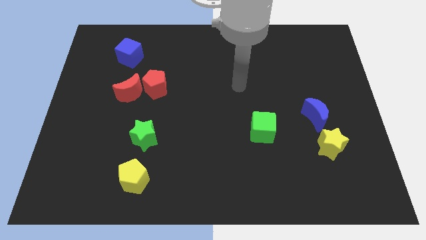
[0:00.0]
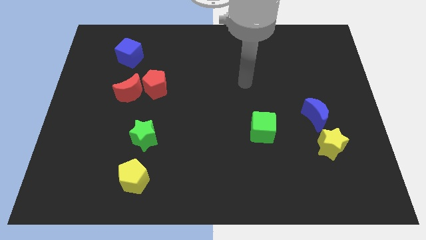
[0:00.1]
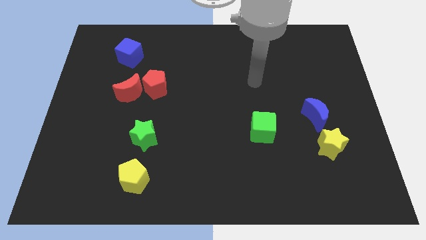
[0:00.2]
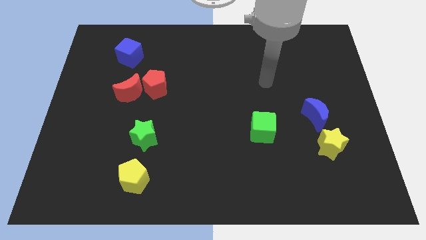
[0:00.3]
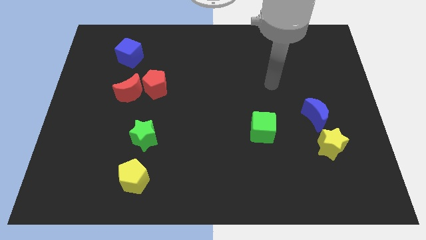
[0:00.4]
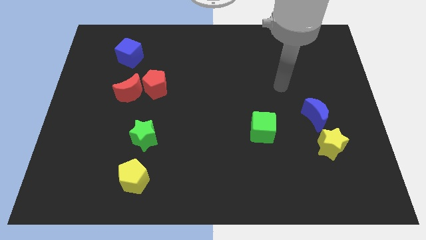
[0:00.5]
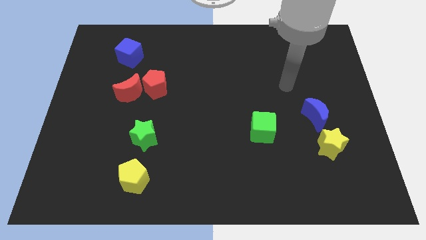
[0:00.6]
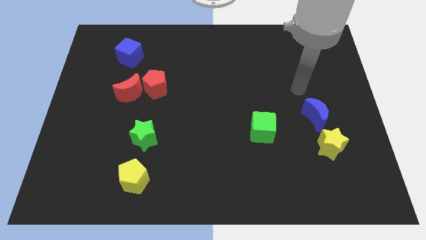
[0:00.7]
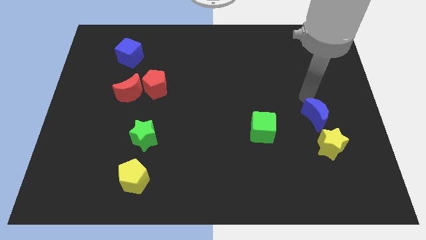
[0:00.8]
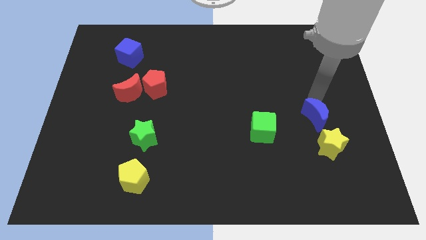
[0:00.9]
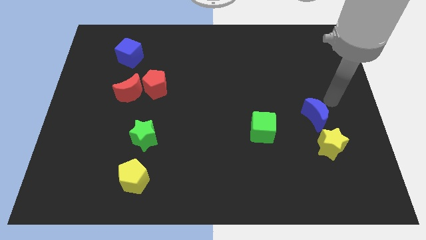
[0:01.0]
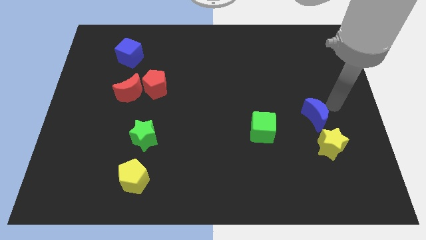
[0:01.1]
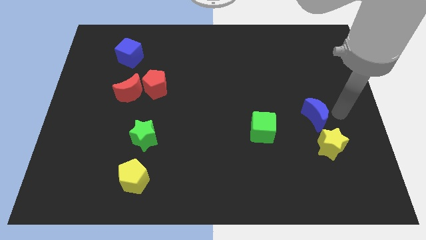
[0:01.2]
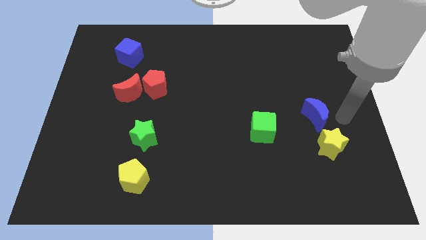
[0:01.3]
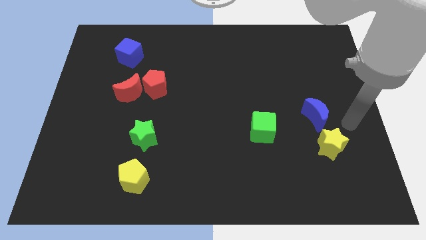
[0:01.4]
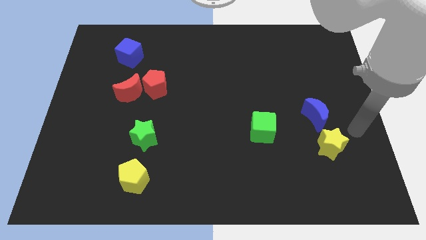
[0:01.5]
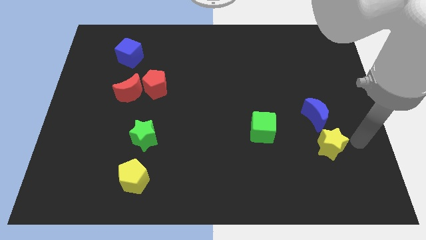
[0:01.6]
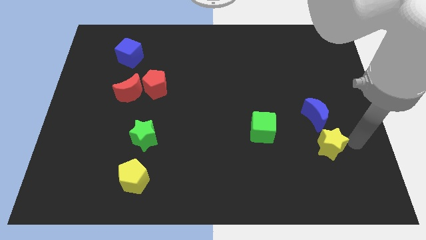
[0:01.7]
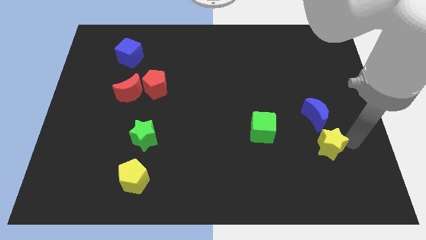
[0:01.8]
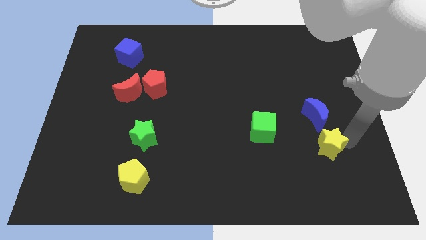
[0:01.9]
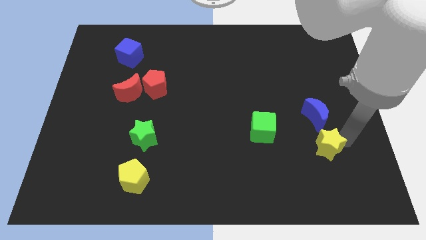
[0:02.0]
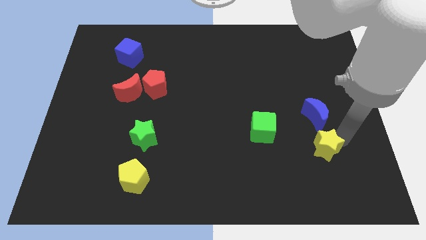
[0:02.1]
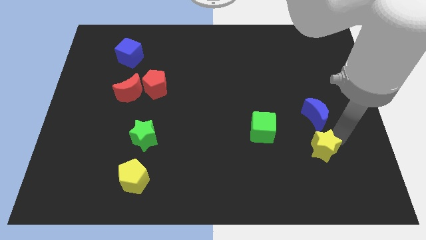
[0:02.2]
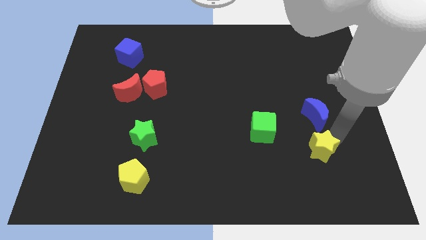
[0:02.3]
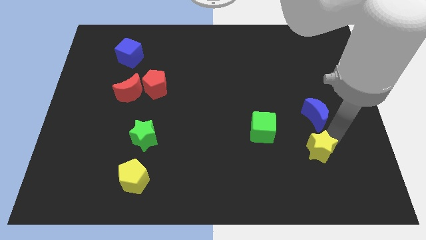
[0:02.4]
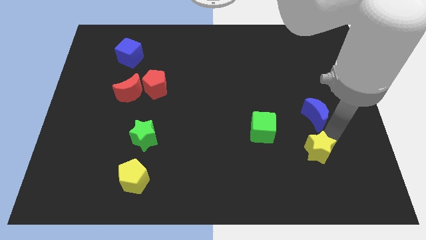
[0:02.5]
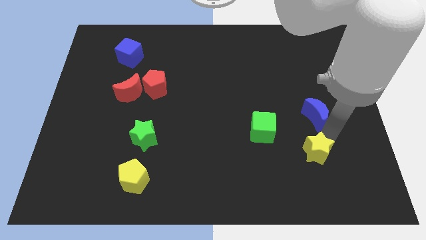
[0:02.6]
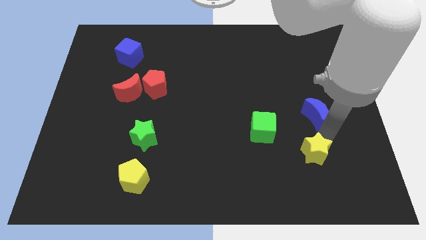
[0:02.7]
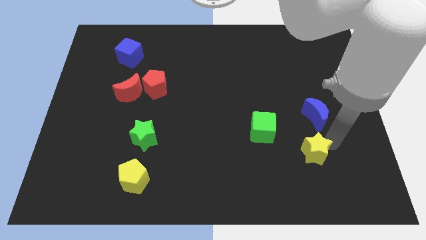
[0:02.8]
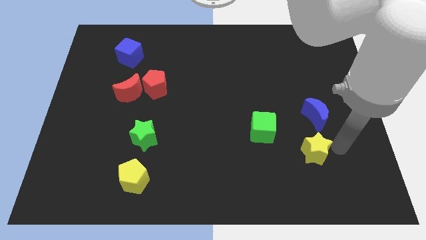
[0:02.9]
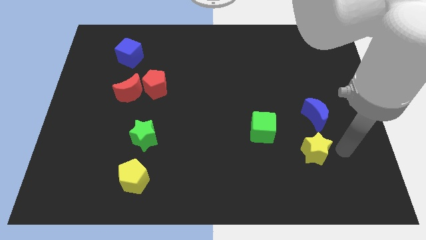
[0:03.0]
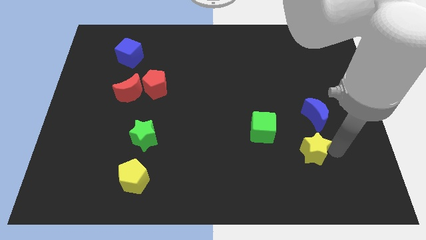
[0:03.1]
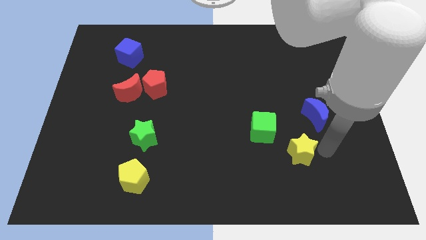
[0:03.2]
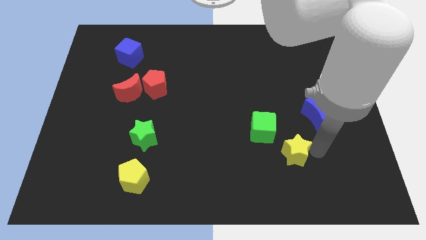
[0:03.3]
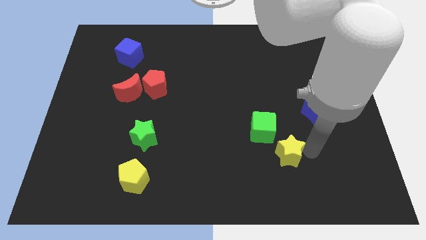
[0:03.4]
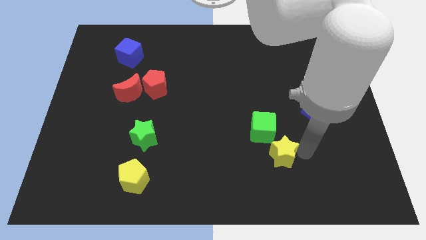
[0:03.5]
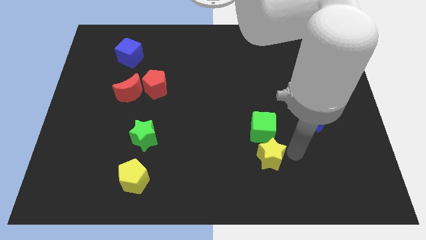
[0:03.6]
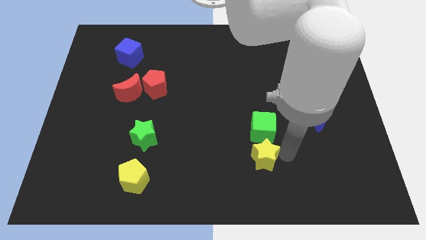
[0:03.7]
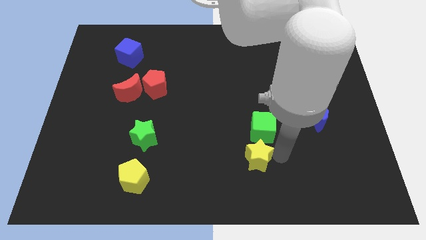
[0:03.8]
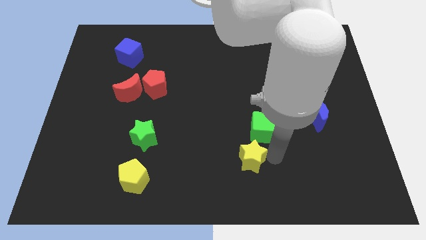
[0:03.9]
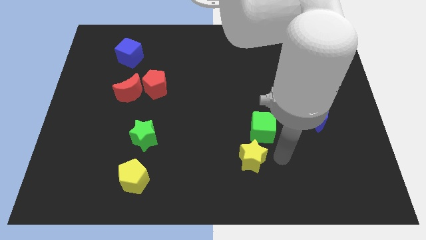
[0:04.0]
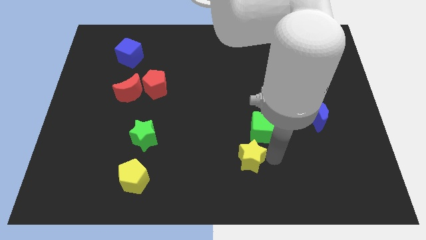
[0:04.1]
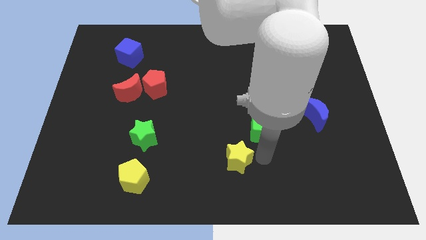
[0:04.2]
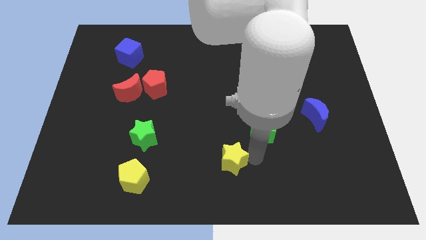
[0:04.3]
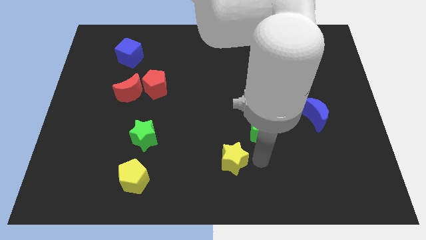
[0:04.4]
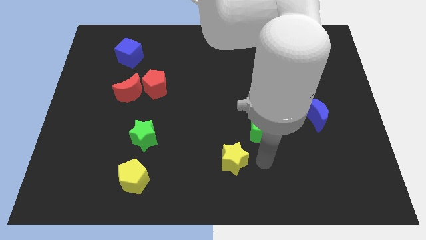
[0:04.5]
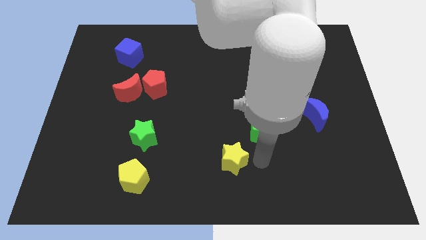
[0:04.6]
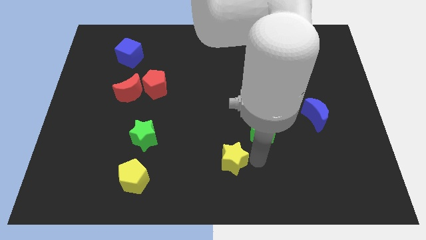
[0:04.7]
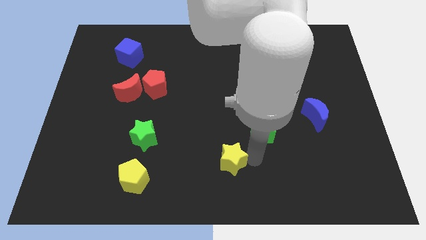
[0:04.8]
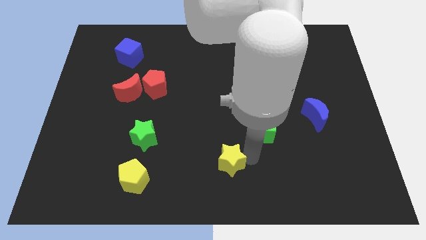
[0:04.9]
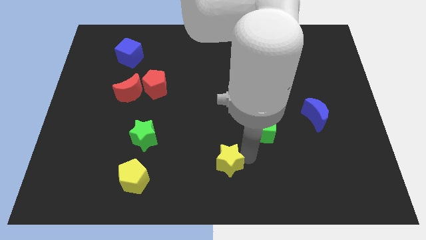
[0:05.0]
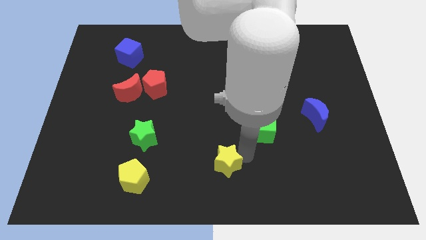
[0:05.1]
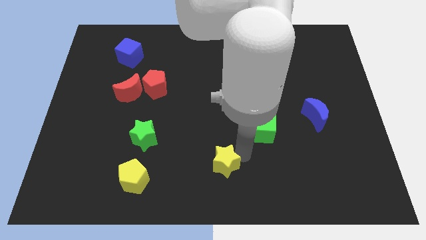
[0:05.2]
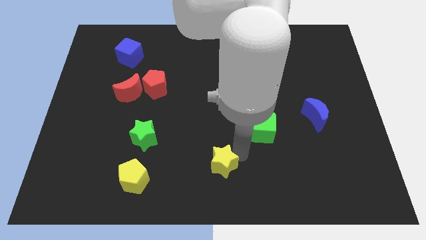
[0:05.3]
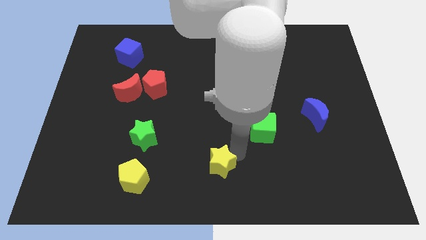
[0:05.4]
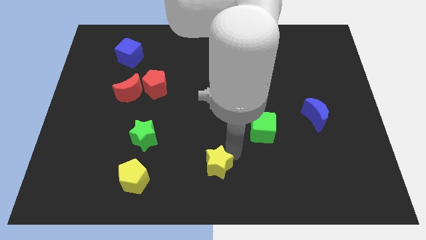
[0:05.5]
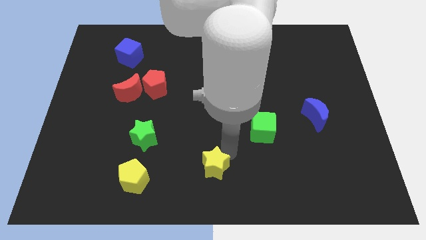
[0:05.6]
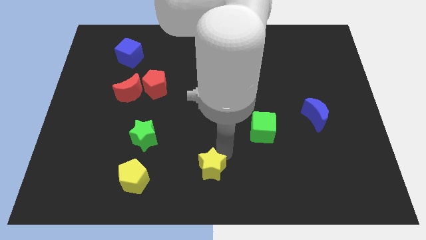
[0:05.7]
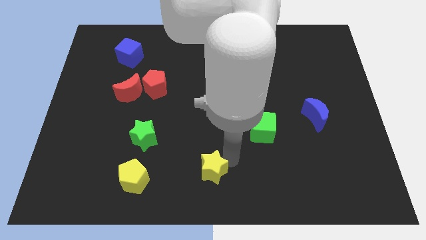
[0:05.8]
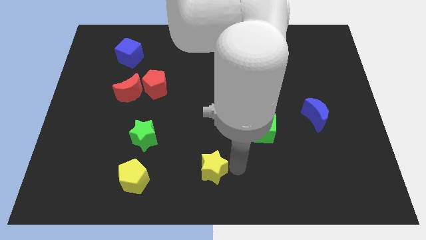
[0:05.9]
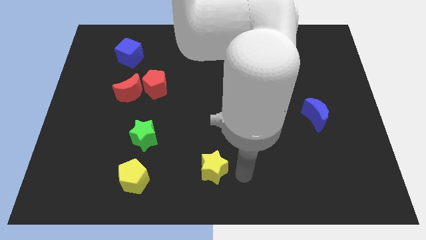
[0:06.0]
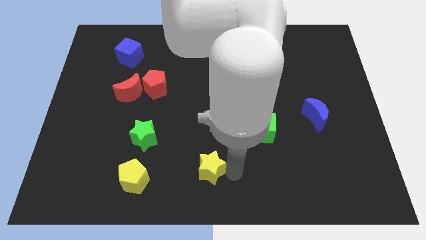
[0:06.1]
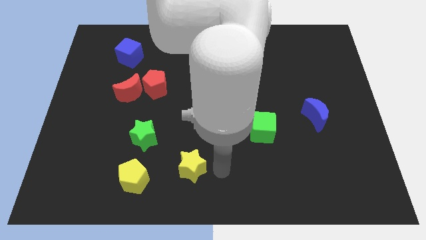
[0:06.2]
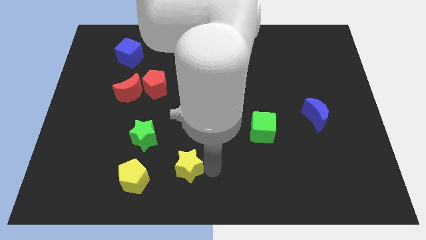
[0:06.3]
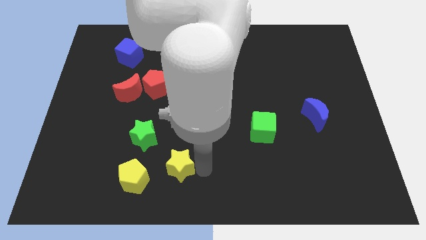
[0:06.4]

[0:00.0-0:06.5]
put the yellow star diagonally up and to the right of the yellow pentagon

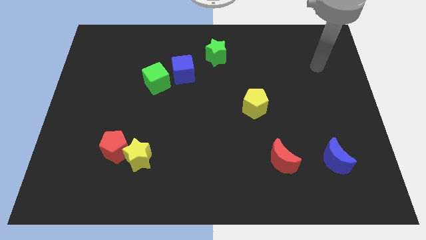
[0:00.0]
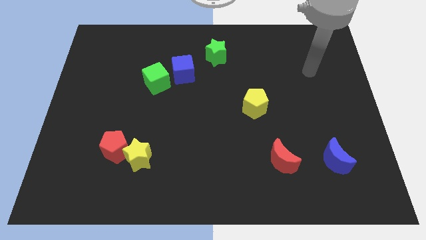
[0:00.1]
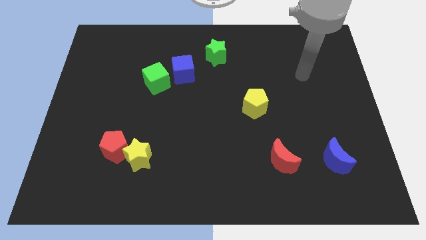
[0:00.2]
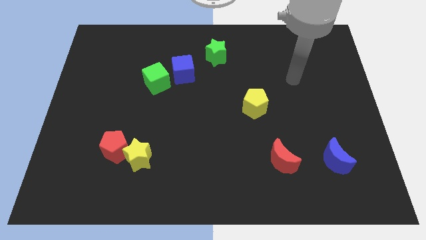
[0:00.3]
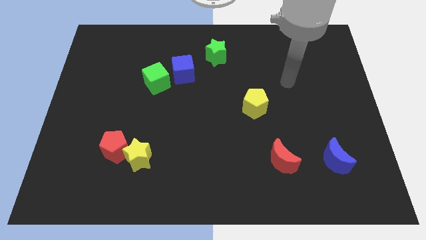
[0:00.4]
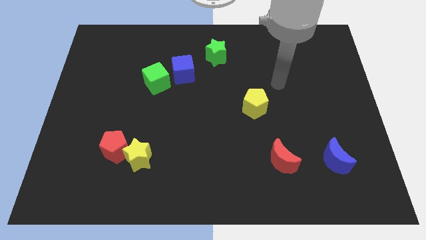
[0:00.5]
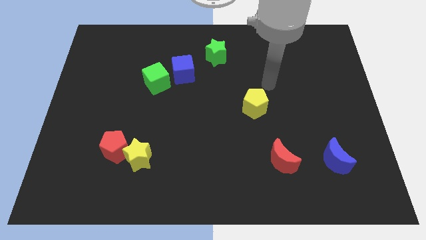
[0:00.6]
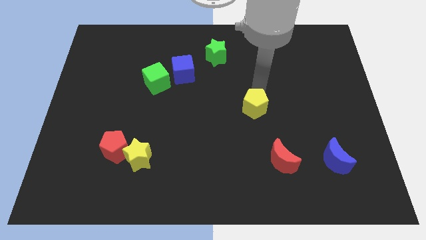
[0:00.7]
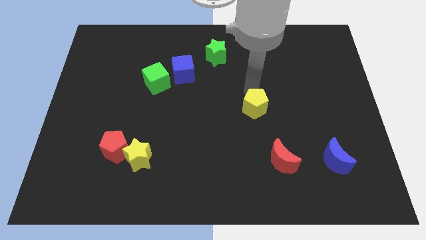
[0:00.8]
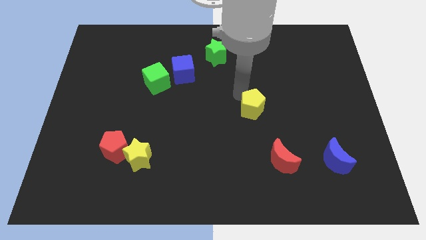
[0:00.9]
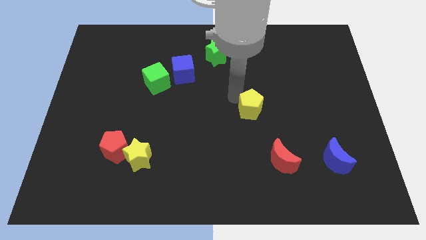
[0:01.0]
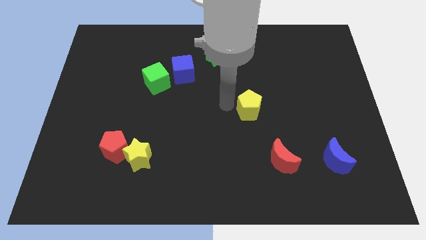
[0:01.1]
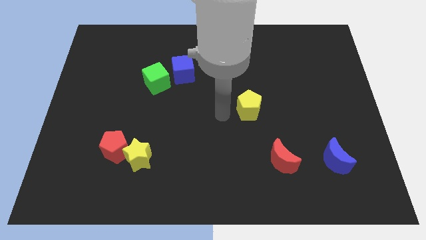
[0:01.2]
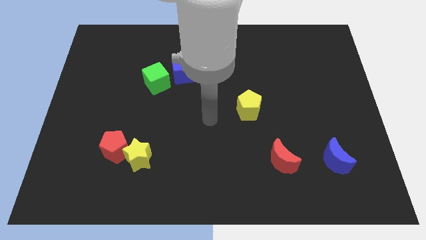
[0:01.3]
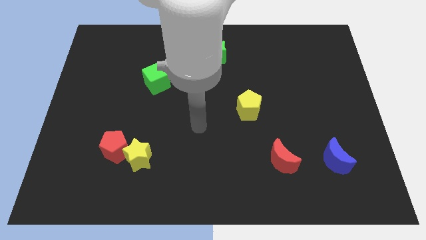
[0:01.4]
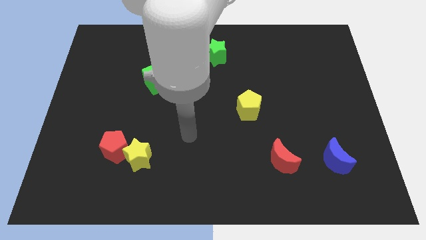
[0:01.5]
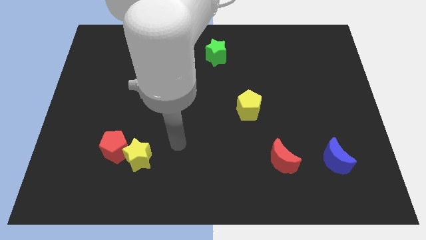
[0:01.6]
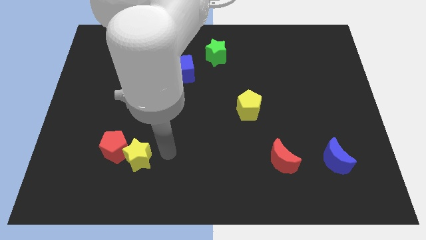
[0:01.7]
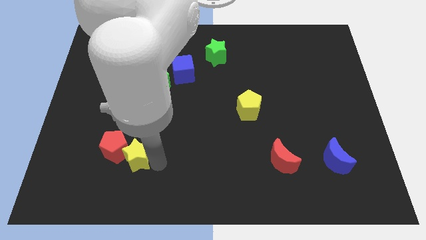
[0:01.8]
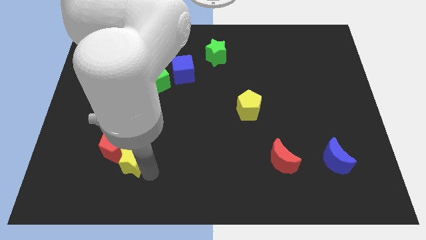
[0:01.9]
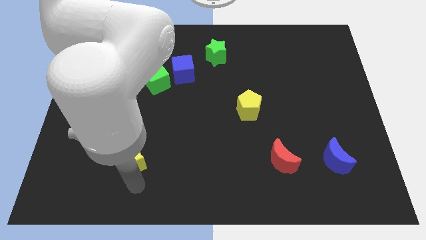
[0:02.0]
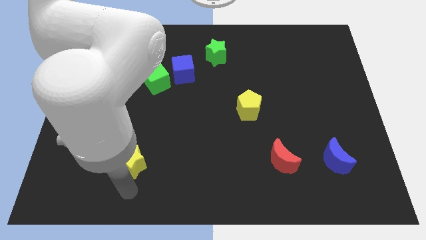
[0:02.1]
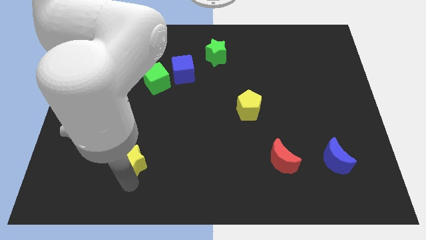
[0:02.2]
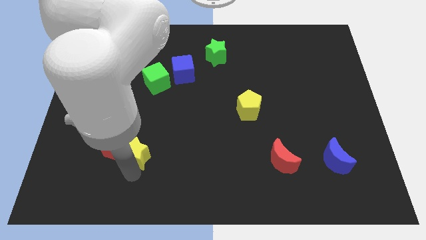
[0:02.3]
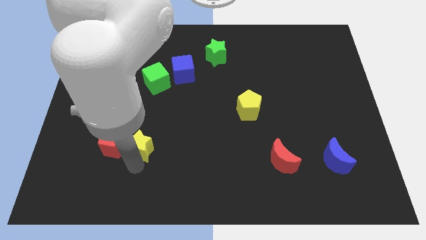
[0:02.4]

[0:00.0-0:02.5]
put the yellow star diagonally up and to the right of the red pentagon
